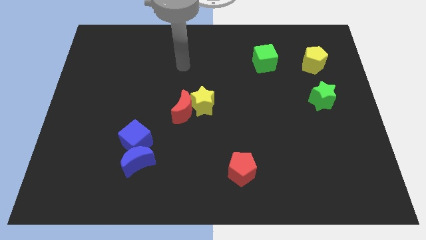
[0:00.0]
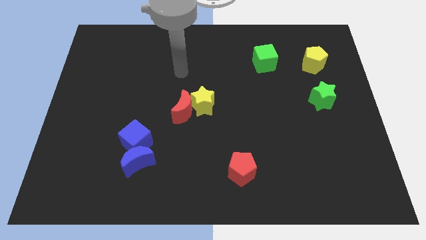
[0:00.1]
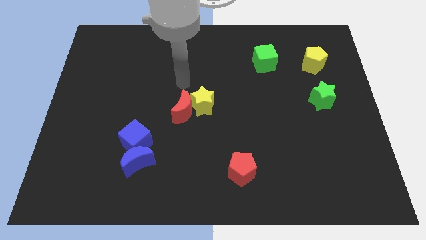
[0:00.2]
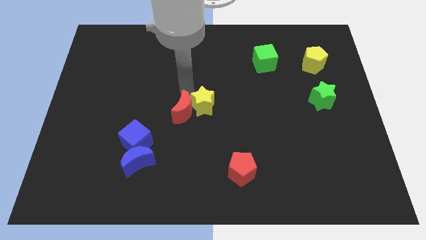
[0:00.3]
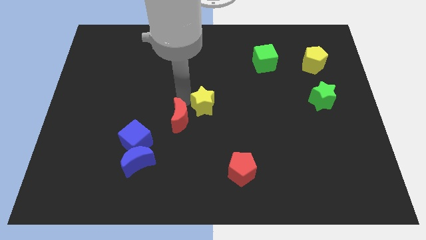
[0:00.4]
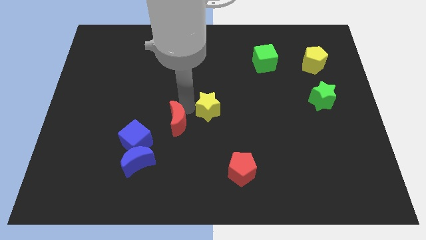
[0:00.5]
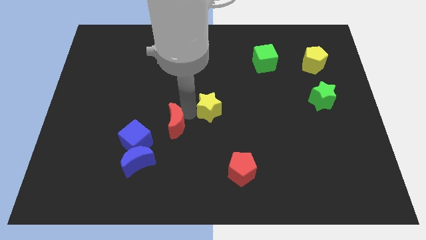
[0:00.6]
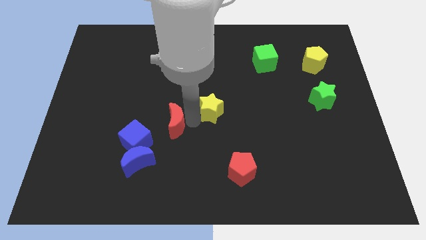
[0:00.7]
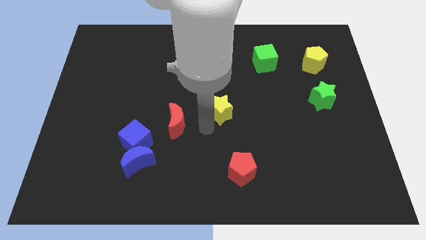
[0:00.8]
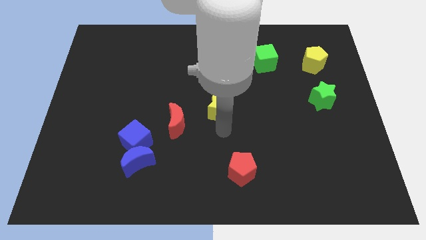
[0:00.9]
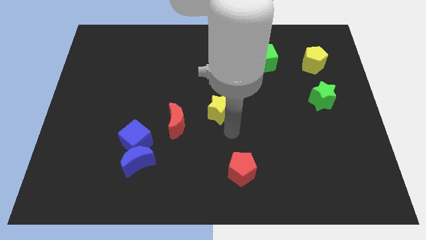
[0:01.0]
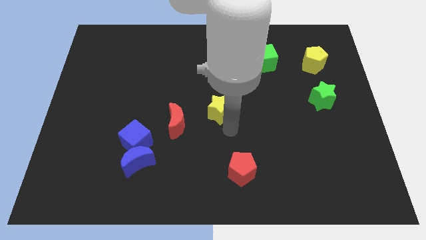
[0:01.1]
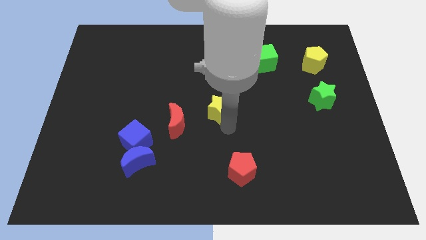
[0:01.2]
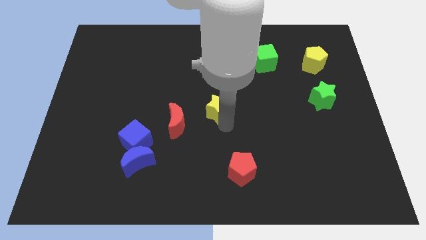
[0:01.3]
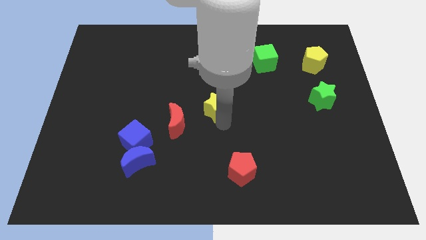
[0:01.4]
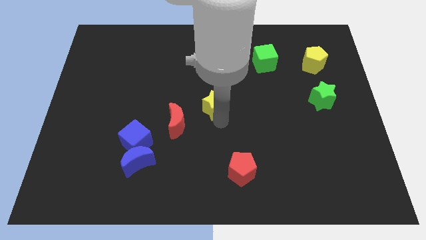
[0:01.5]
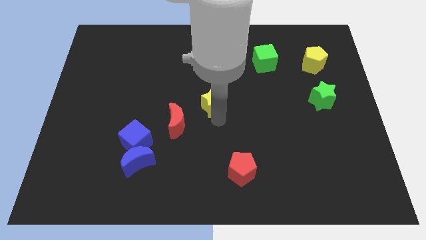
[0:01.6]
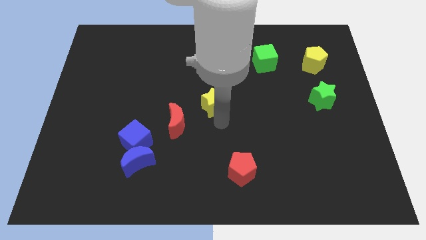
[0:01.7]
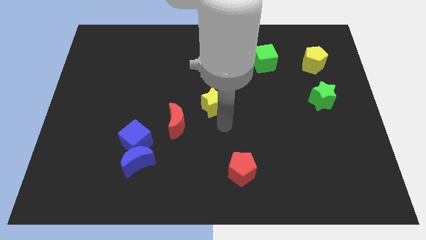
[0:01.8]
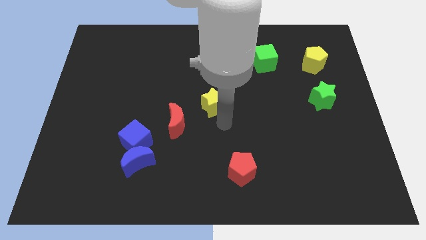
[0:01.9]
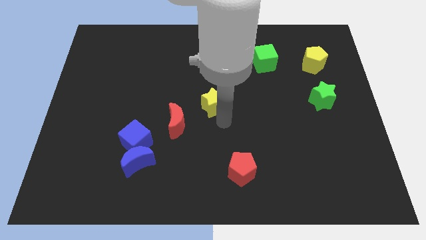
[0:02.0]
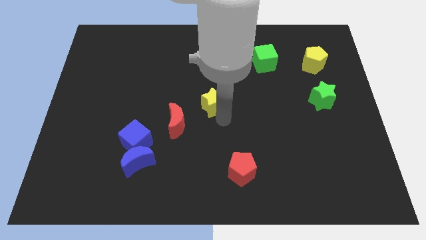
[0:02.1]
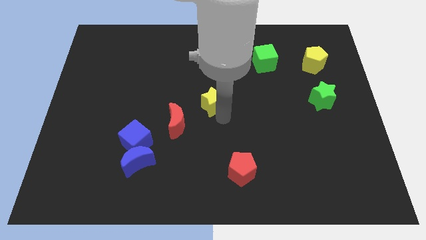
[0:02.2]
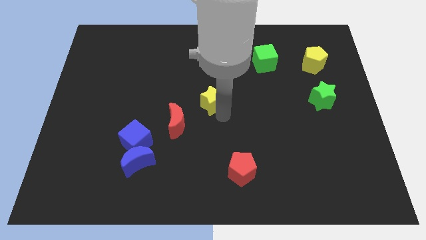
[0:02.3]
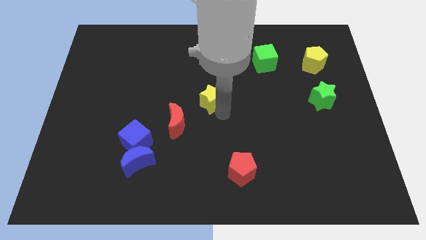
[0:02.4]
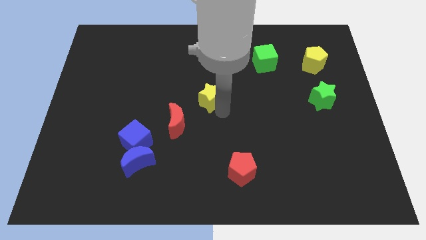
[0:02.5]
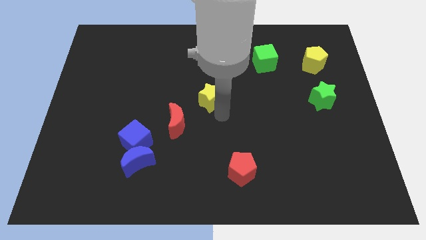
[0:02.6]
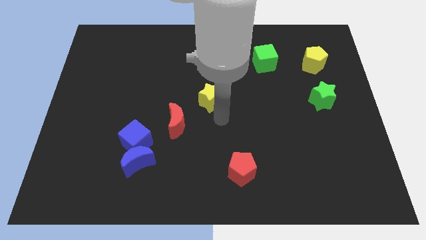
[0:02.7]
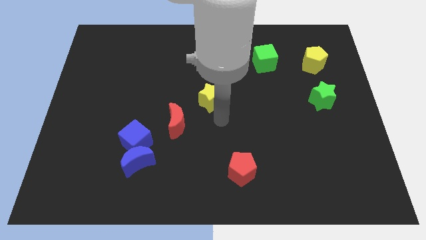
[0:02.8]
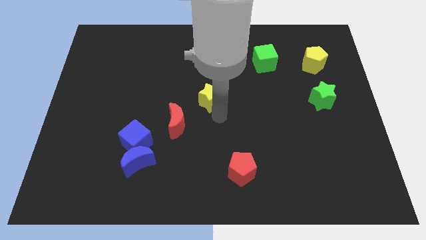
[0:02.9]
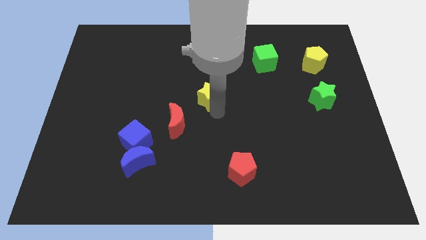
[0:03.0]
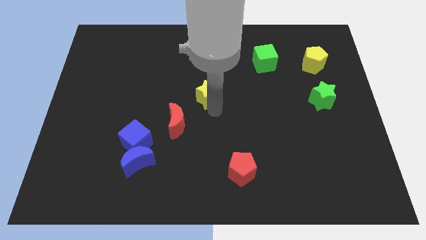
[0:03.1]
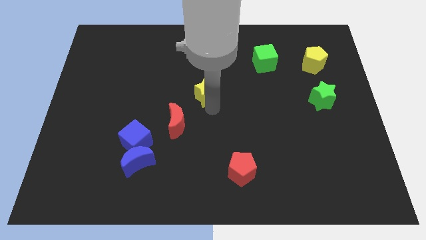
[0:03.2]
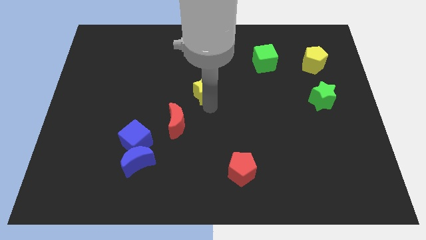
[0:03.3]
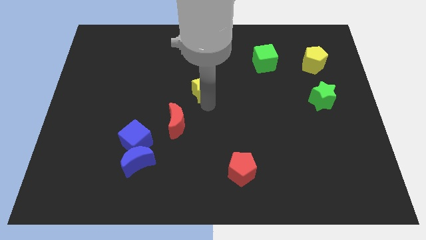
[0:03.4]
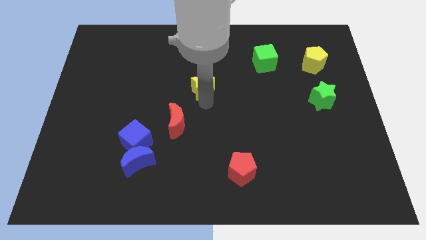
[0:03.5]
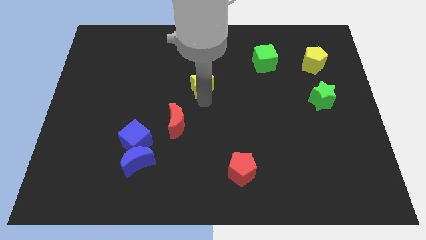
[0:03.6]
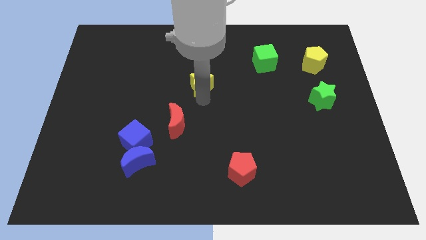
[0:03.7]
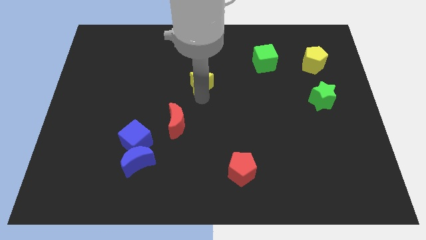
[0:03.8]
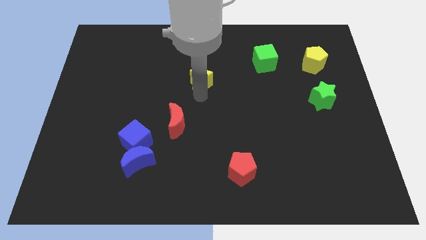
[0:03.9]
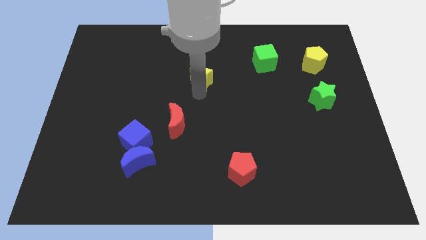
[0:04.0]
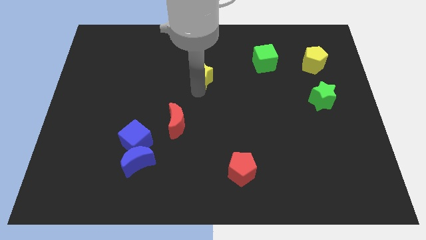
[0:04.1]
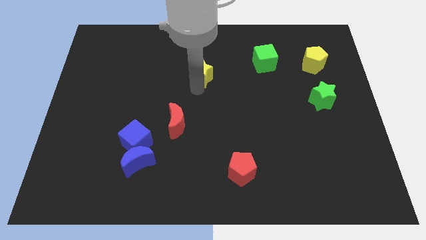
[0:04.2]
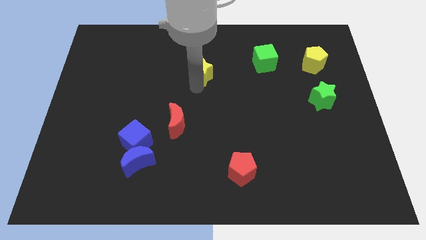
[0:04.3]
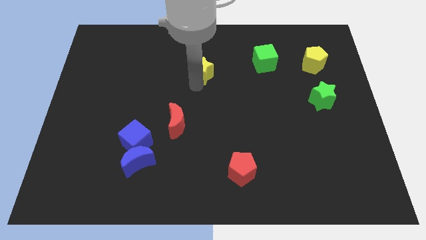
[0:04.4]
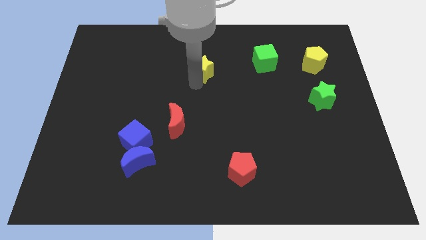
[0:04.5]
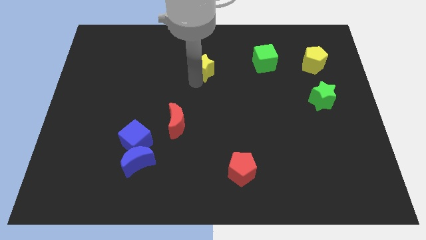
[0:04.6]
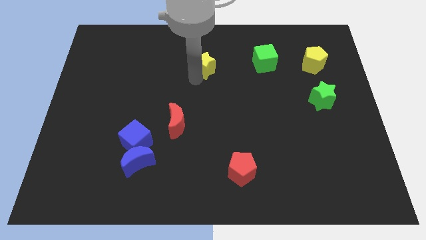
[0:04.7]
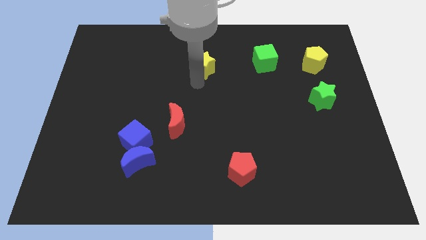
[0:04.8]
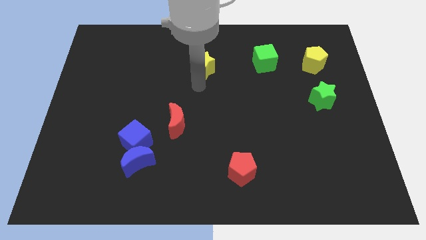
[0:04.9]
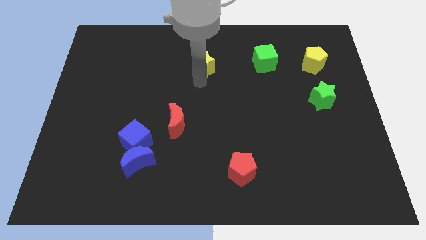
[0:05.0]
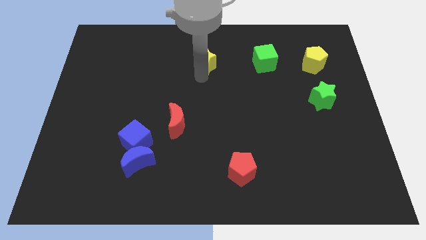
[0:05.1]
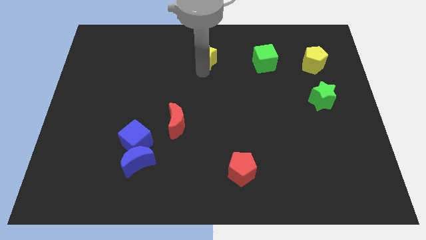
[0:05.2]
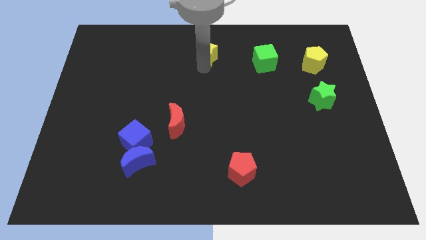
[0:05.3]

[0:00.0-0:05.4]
push the yellow star to the towards your base
